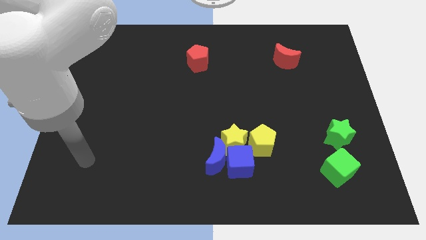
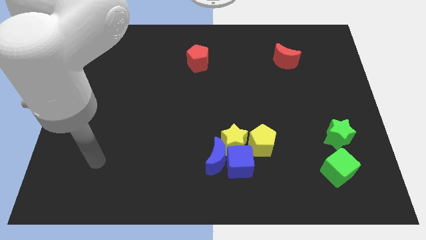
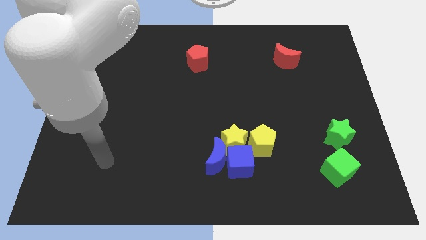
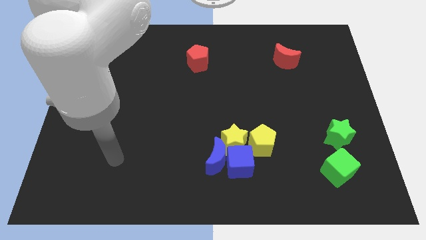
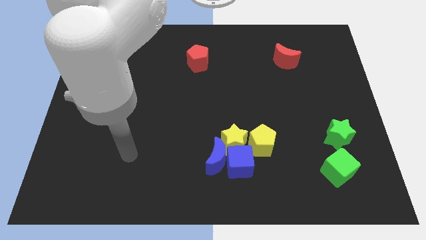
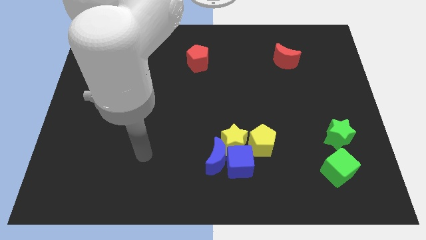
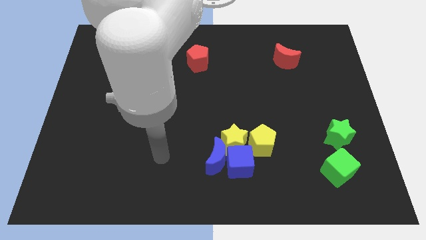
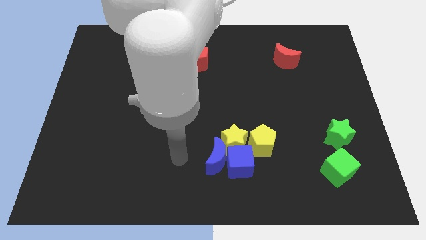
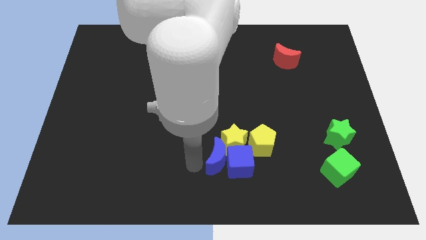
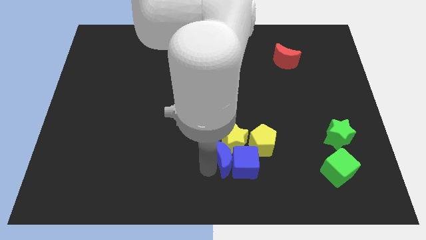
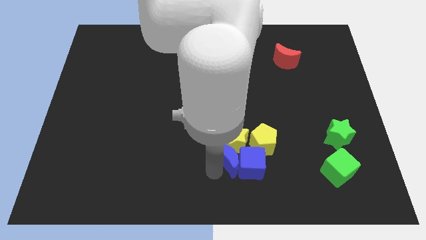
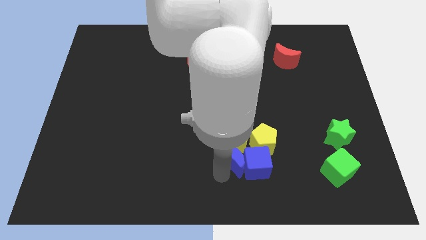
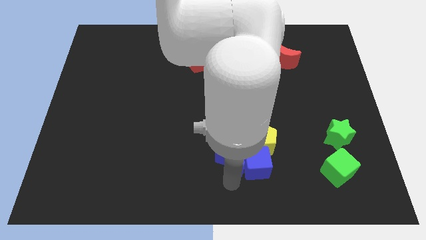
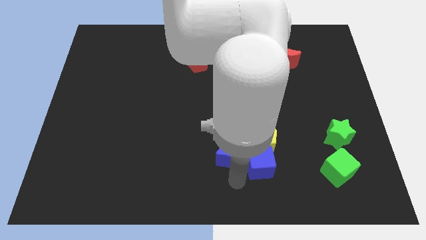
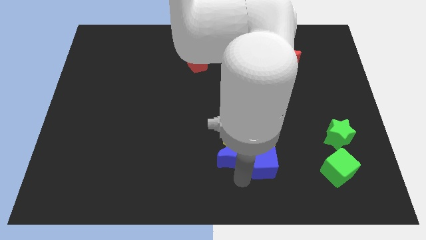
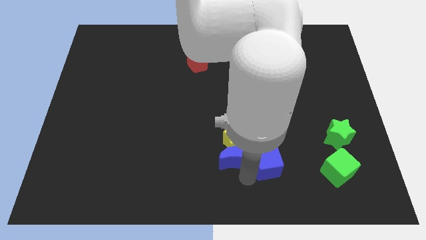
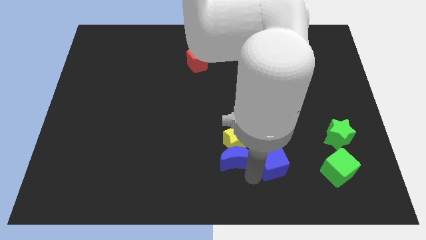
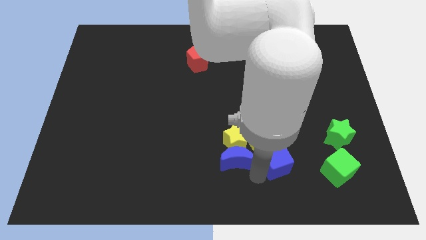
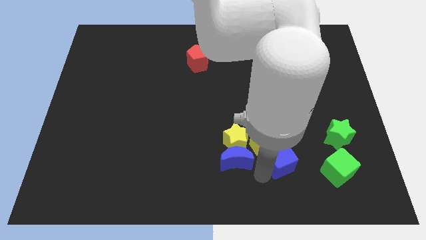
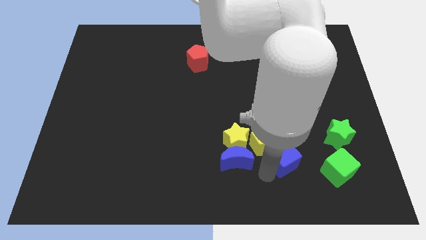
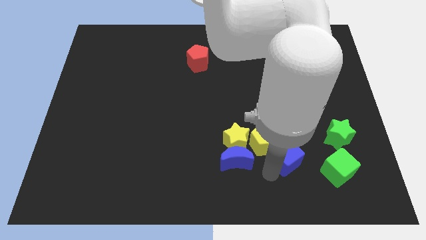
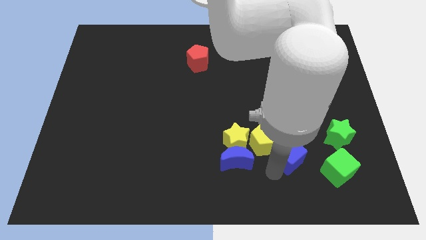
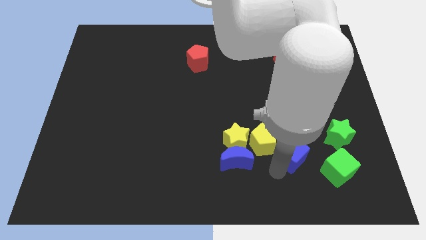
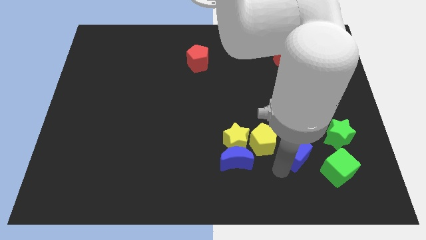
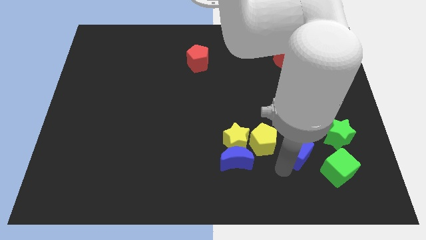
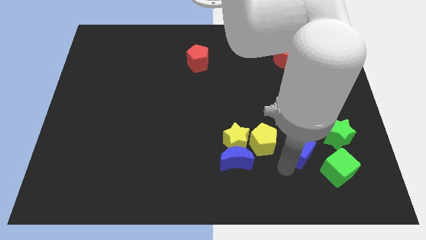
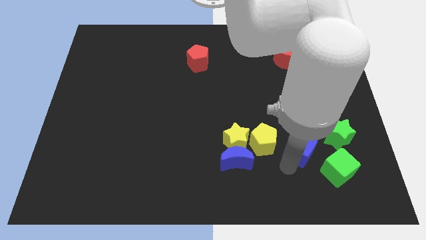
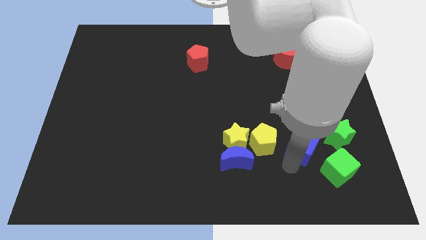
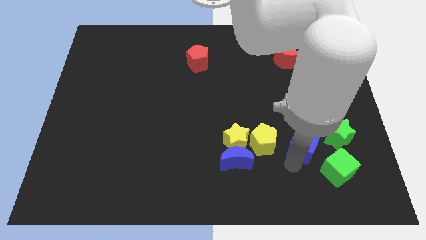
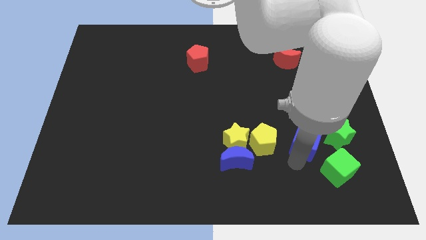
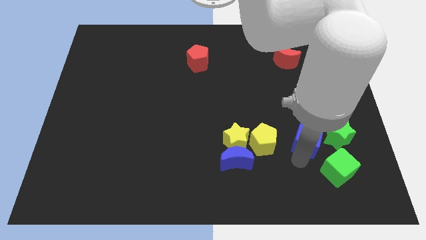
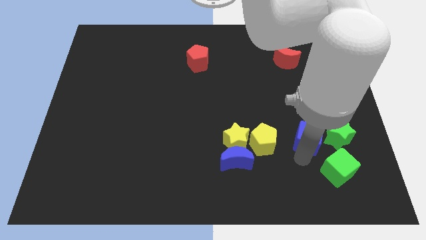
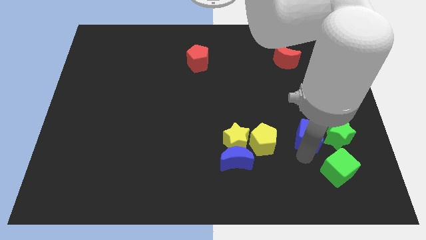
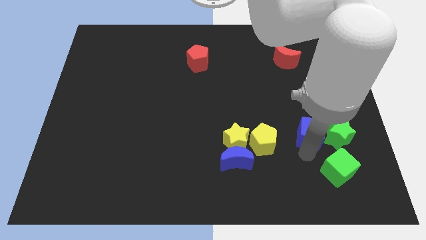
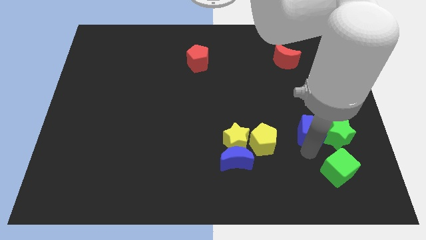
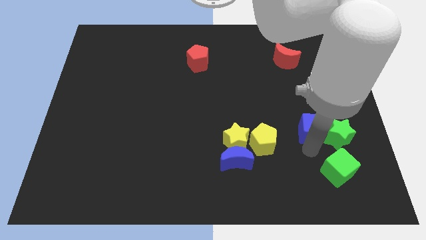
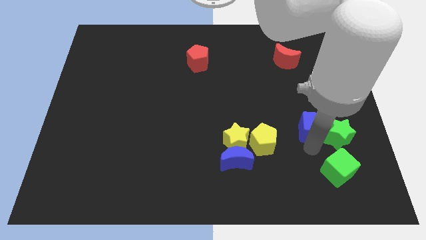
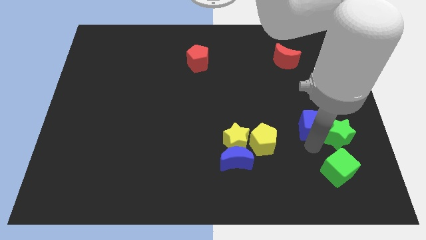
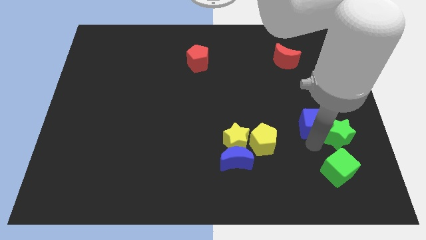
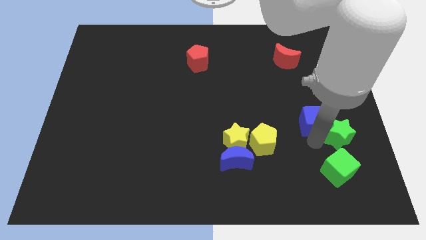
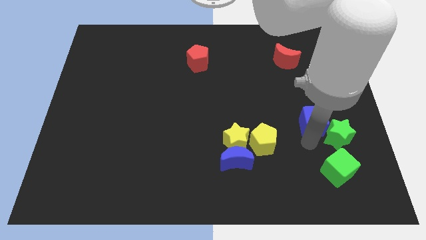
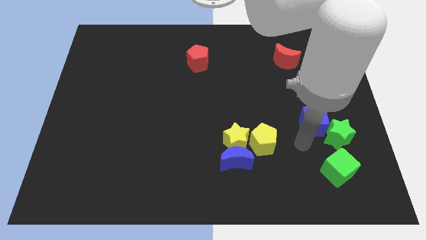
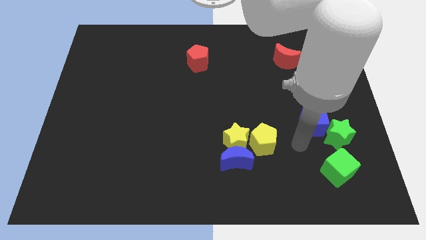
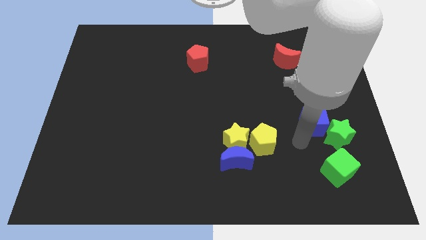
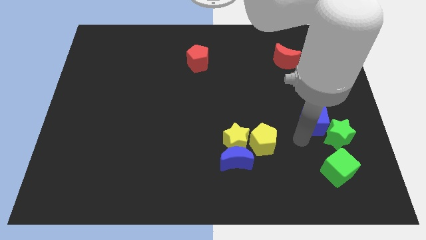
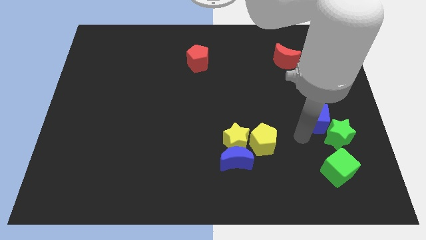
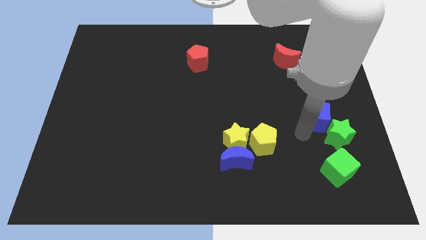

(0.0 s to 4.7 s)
move the blue cube upwards and right

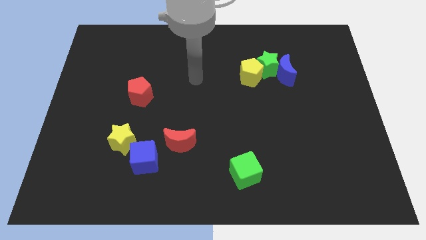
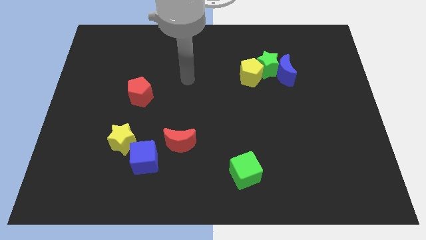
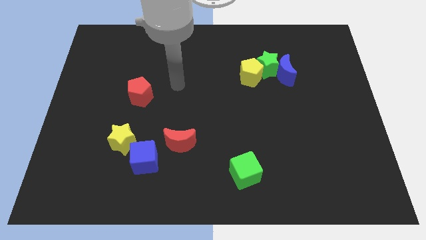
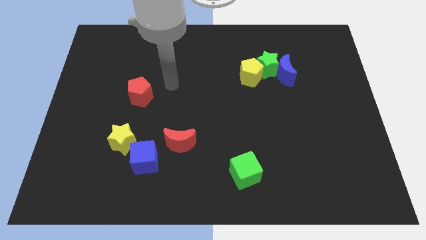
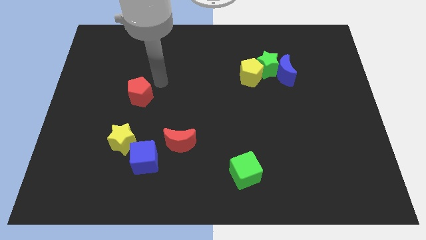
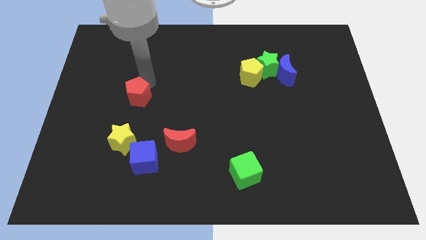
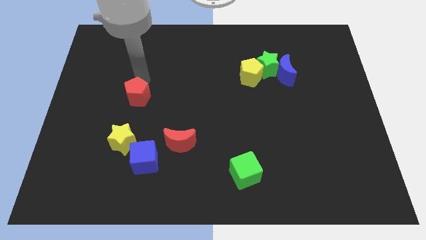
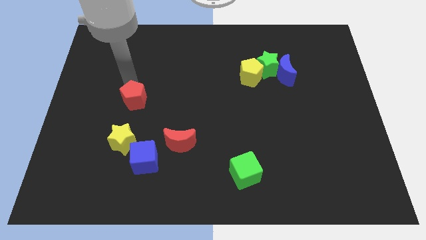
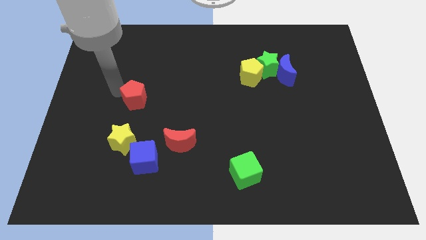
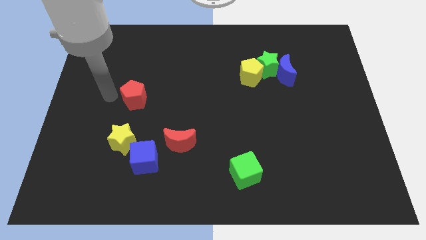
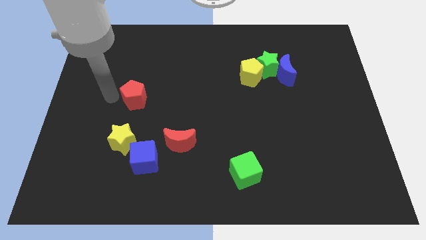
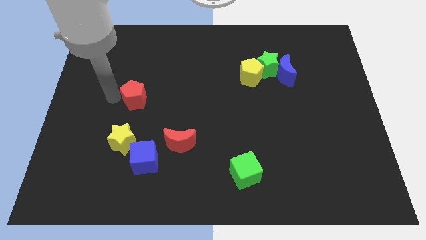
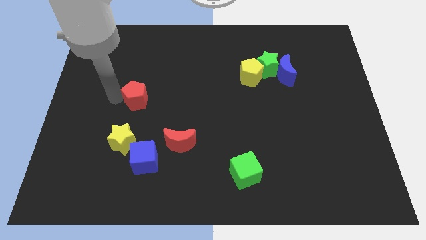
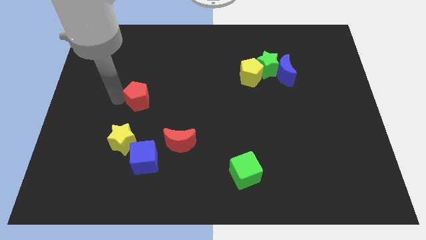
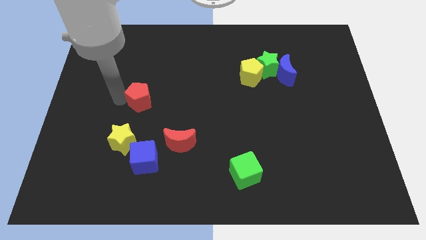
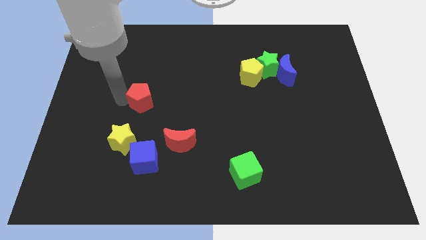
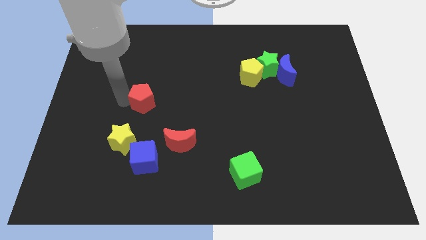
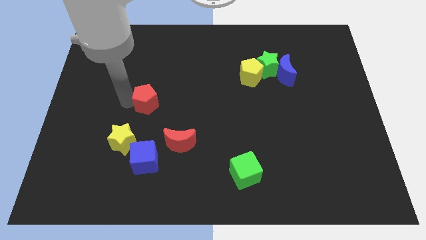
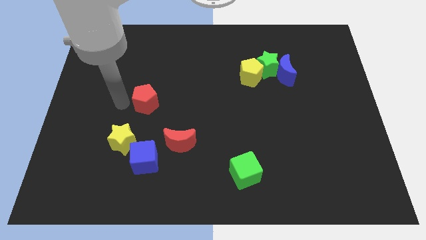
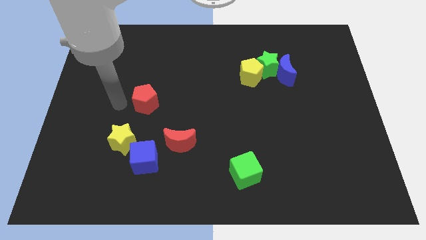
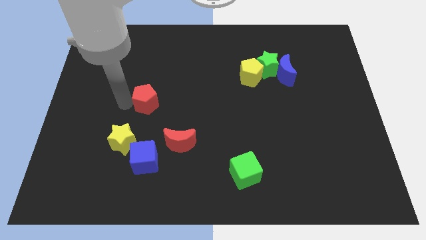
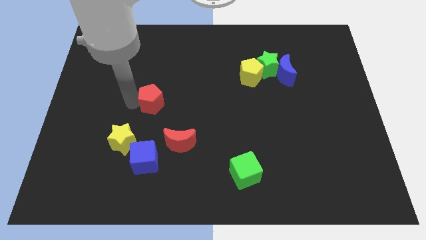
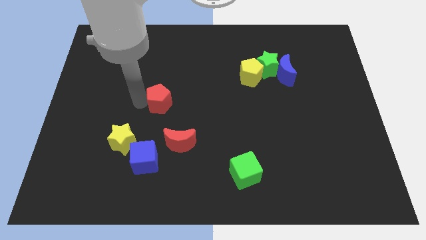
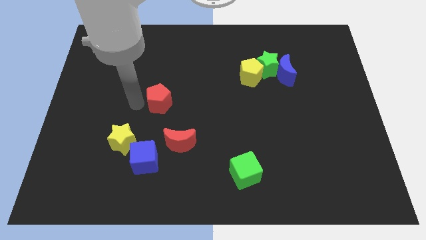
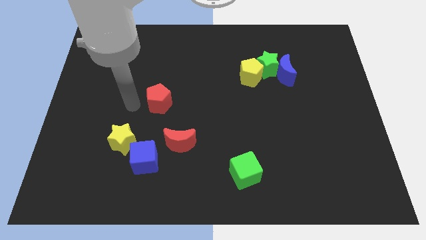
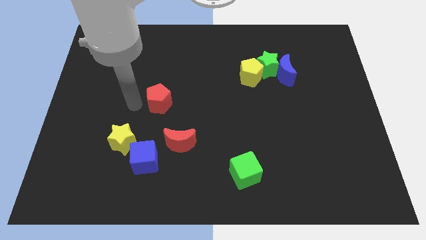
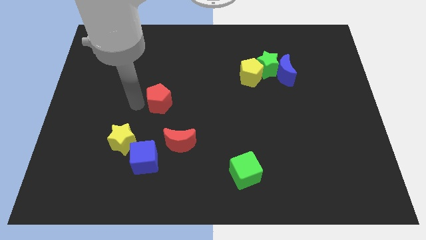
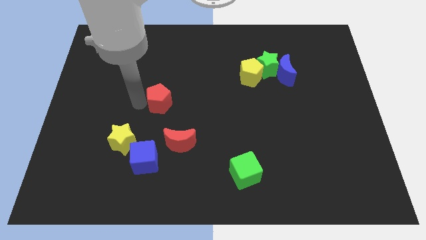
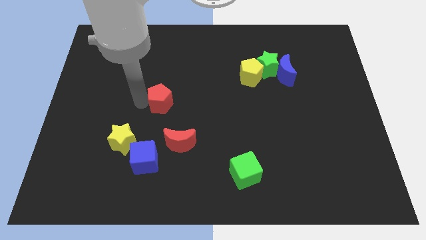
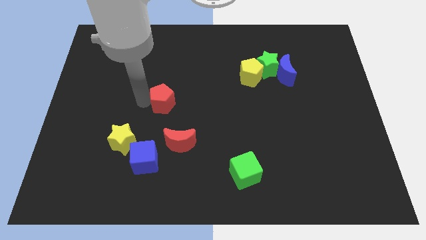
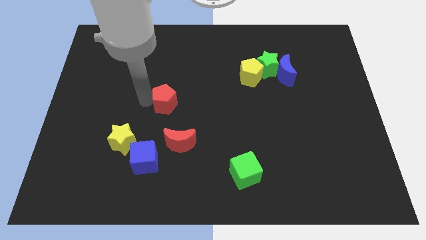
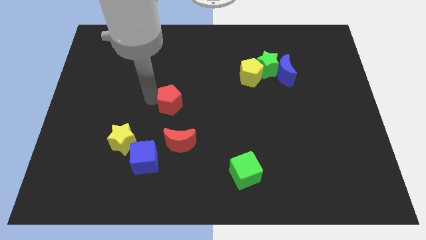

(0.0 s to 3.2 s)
move the red pentagon to the right a bit

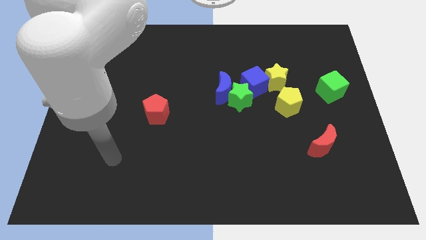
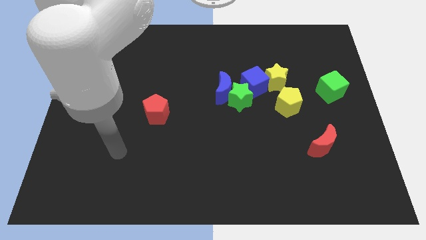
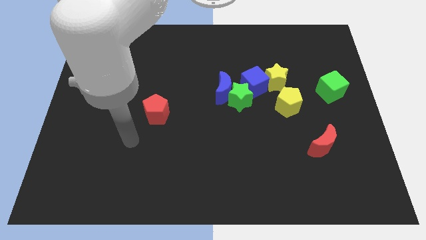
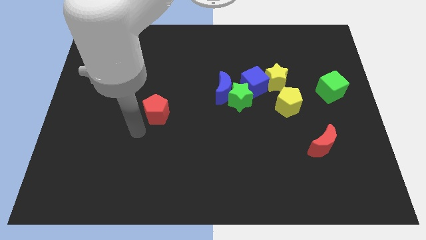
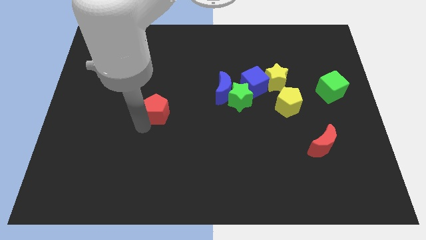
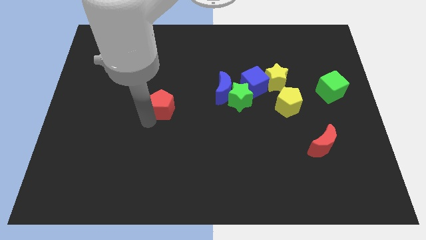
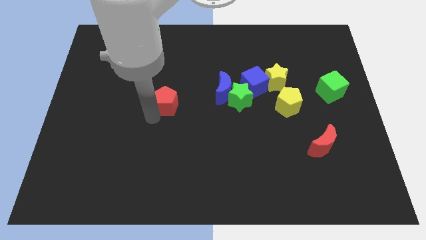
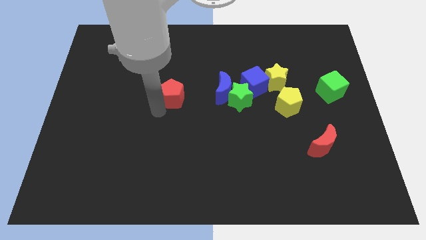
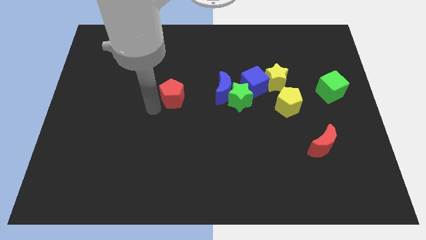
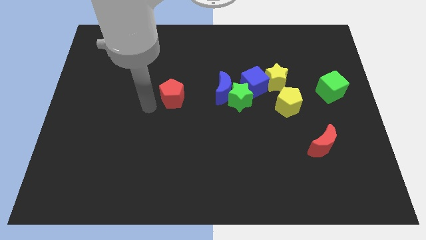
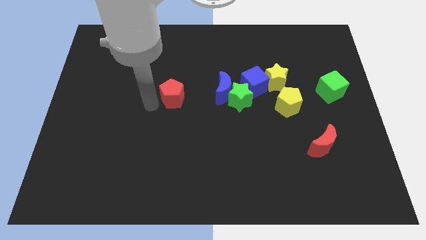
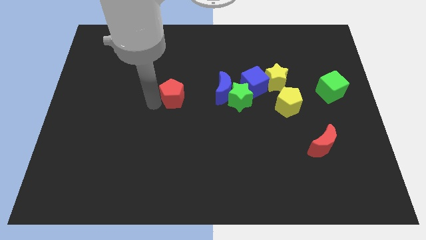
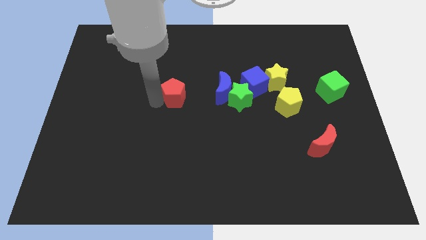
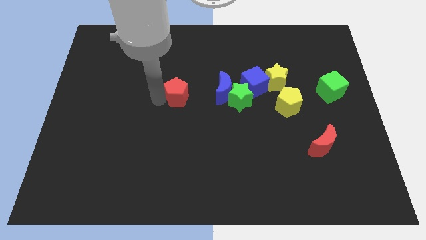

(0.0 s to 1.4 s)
push the red pentagon a little bit up and then right
